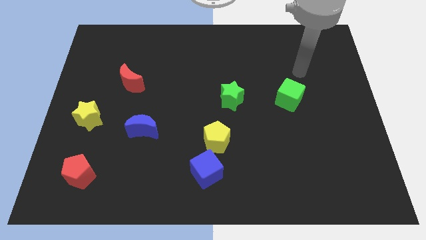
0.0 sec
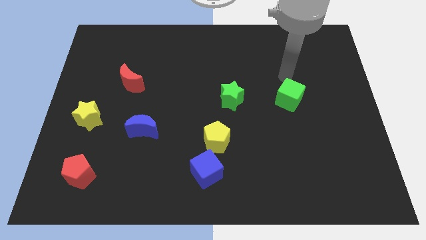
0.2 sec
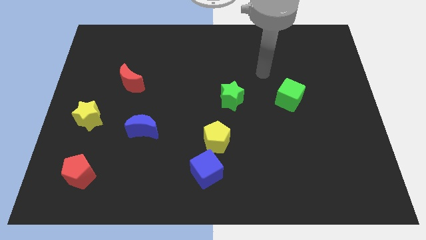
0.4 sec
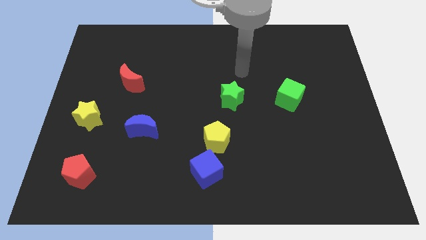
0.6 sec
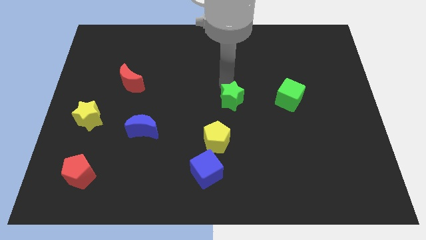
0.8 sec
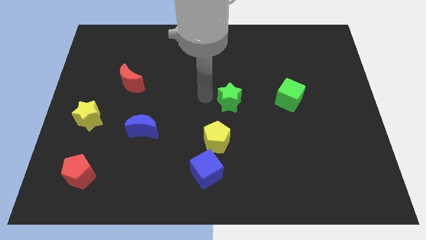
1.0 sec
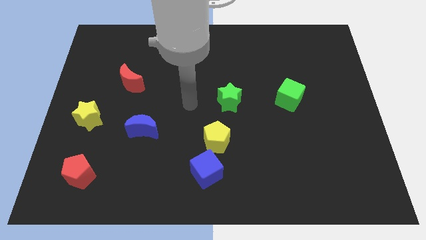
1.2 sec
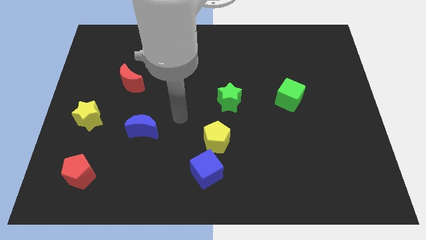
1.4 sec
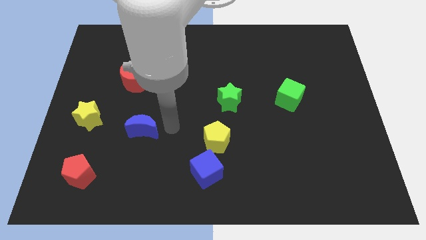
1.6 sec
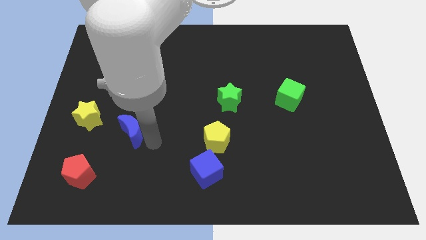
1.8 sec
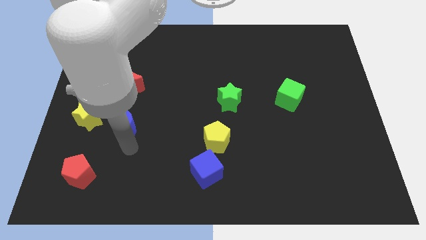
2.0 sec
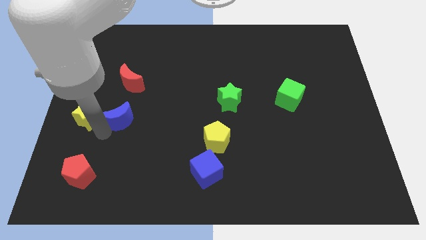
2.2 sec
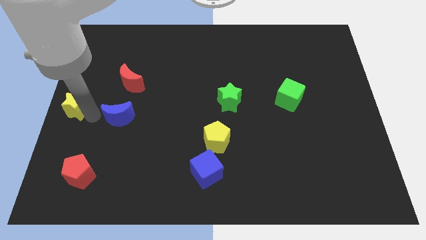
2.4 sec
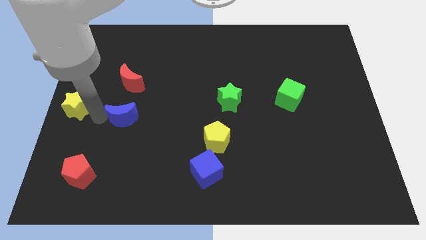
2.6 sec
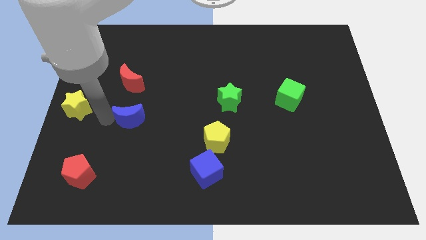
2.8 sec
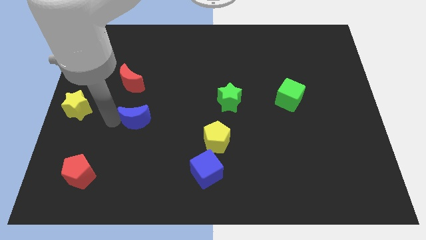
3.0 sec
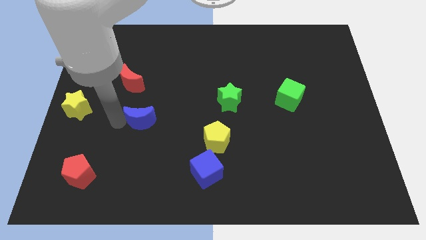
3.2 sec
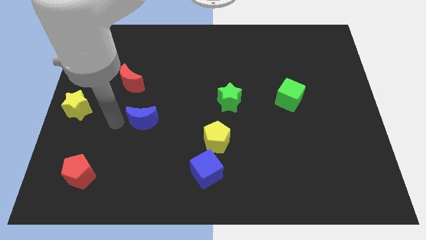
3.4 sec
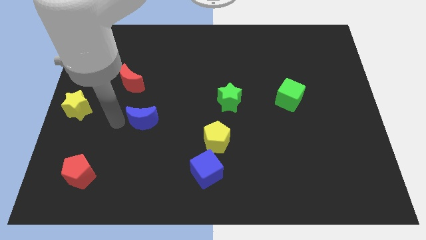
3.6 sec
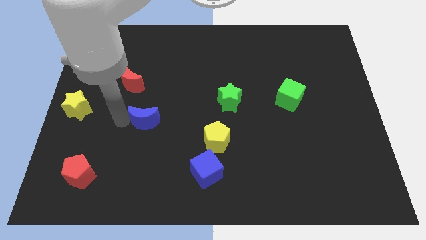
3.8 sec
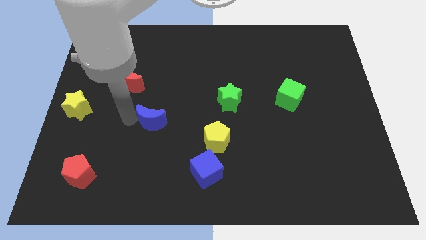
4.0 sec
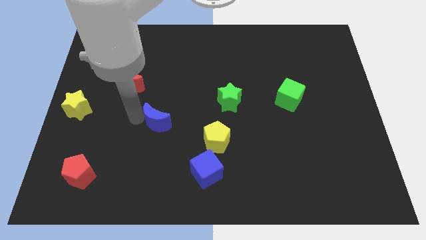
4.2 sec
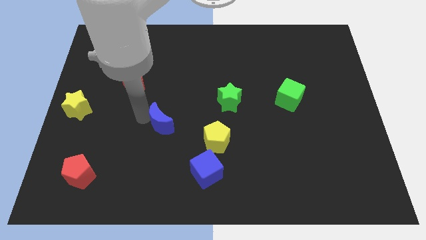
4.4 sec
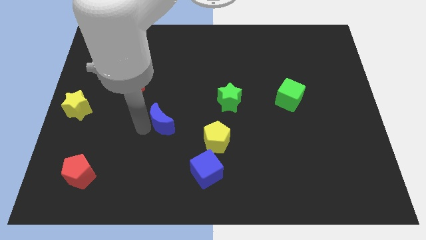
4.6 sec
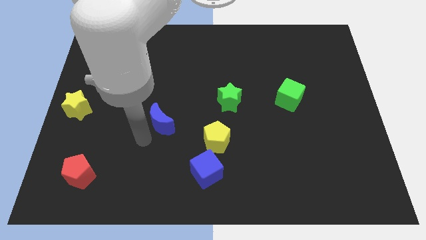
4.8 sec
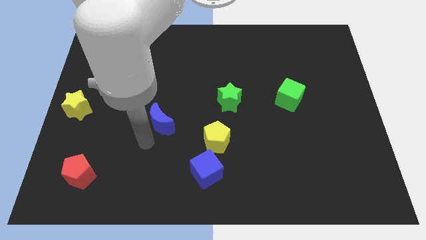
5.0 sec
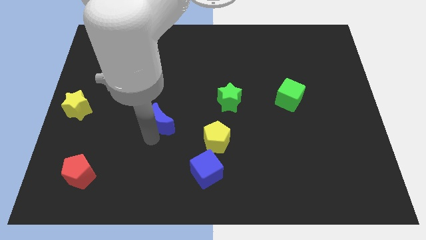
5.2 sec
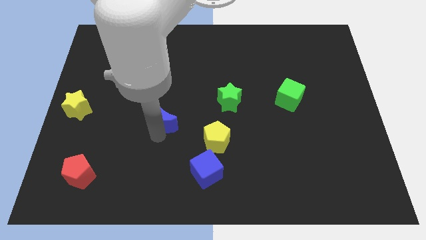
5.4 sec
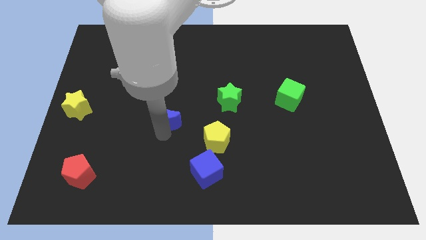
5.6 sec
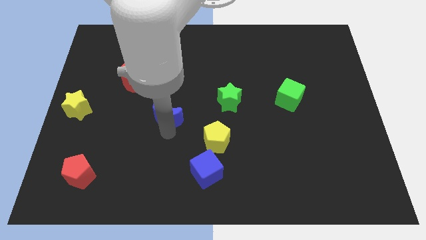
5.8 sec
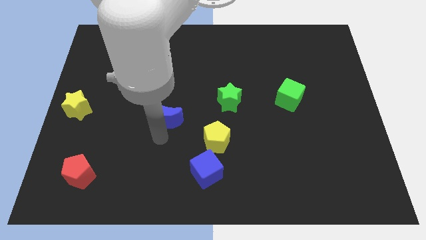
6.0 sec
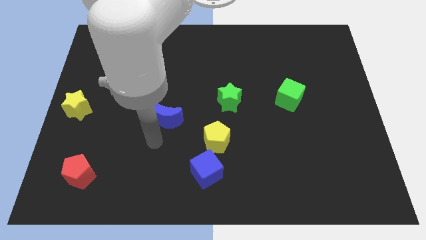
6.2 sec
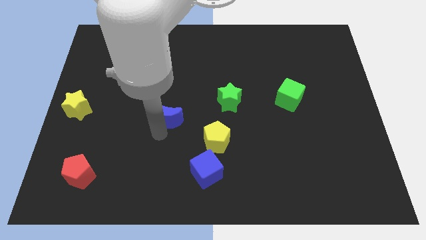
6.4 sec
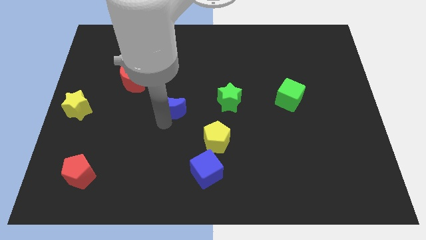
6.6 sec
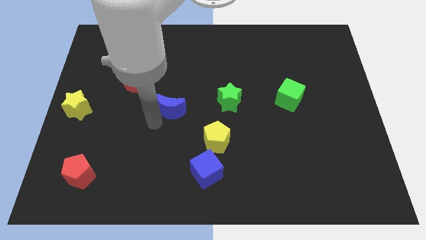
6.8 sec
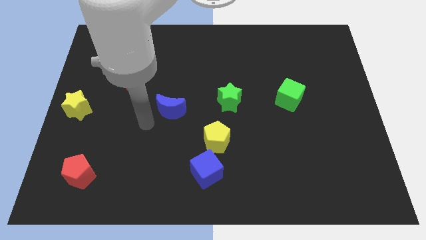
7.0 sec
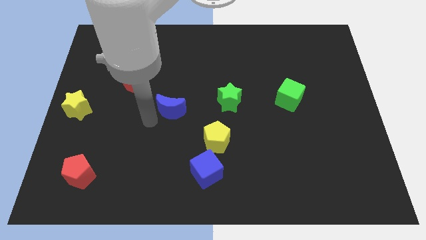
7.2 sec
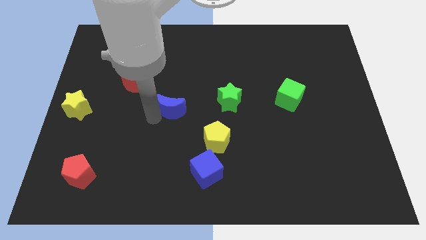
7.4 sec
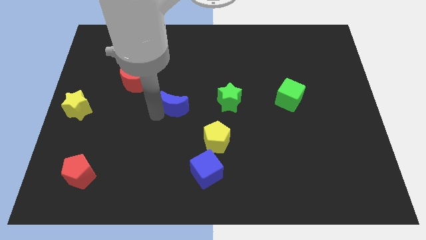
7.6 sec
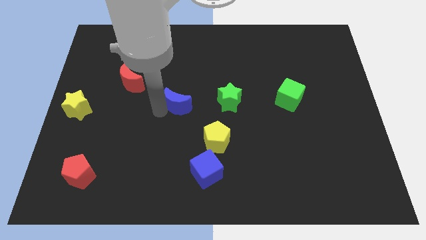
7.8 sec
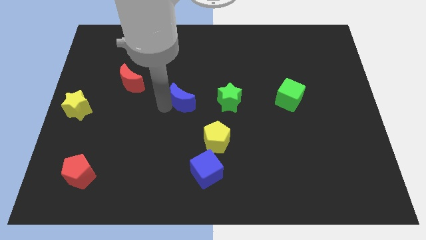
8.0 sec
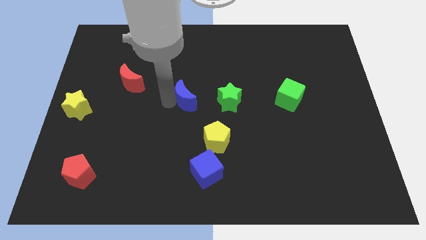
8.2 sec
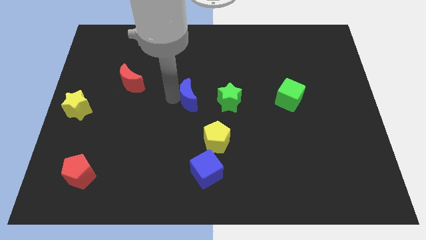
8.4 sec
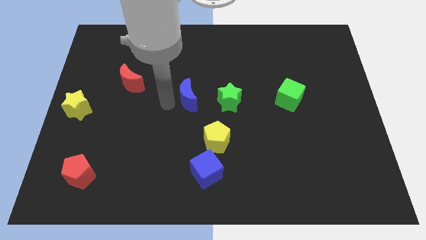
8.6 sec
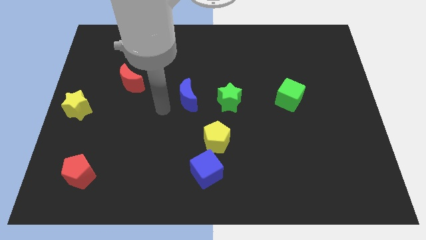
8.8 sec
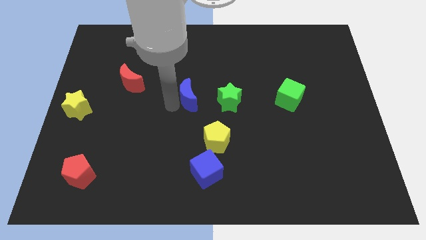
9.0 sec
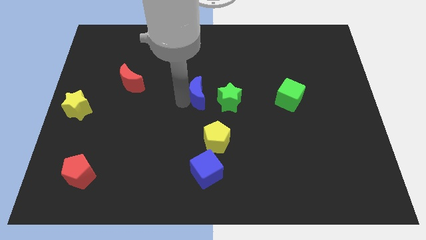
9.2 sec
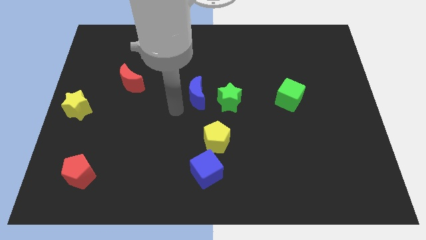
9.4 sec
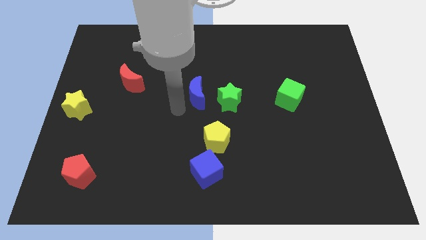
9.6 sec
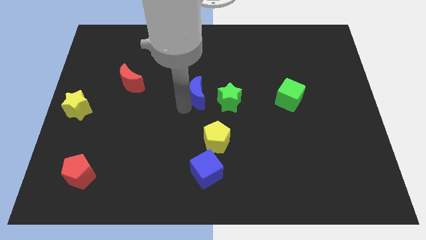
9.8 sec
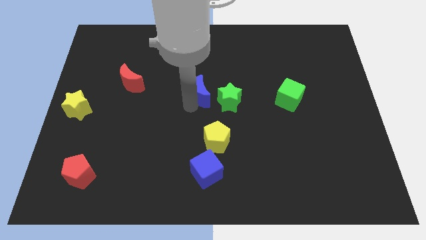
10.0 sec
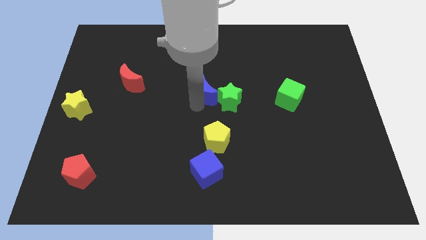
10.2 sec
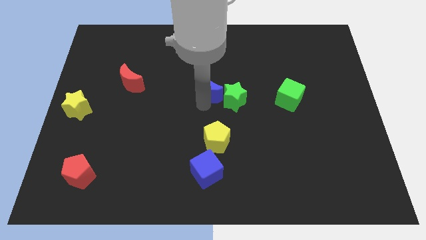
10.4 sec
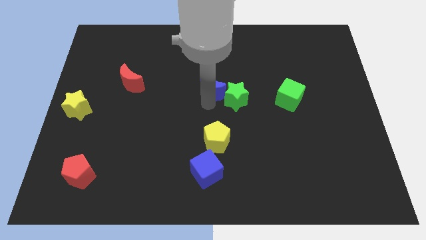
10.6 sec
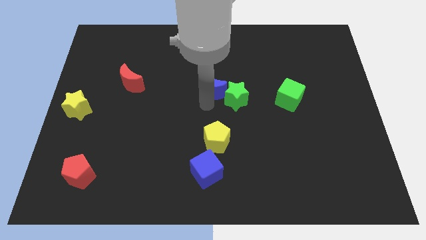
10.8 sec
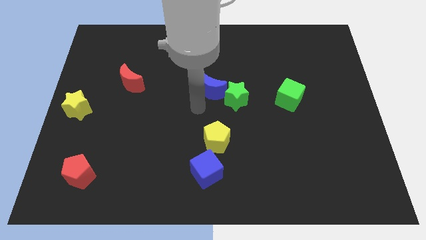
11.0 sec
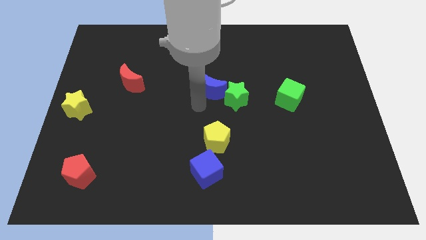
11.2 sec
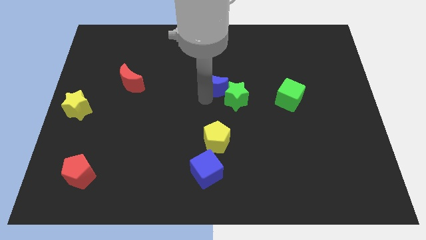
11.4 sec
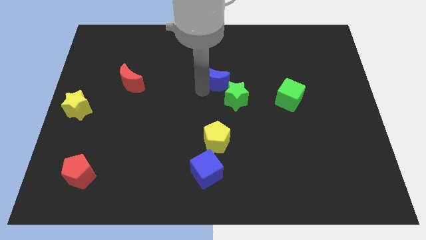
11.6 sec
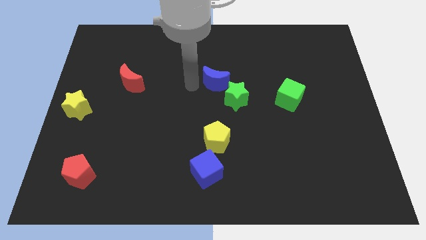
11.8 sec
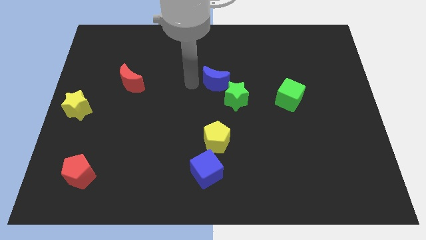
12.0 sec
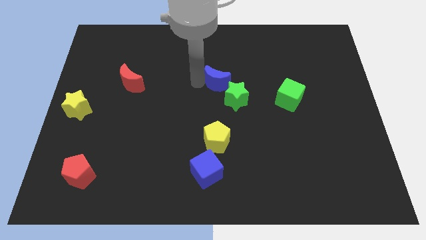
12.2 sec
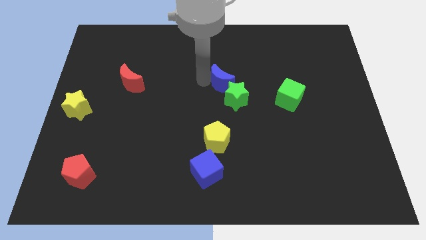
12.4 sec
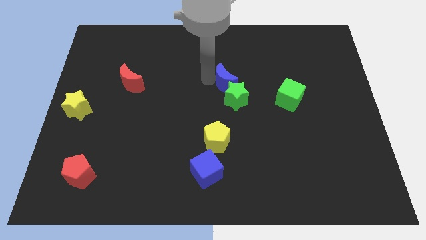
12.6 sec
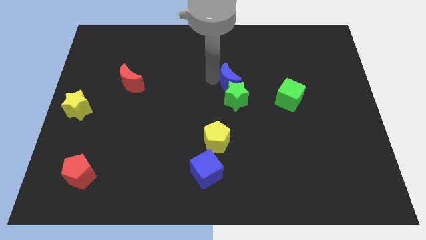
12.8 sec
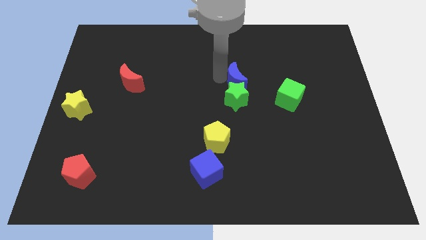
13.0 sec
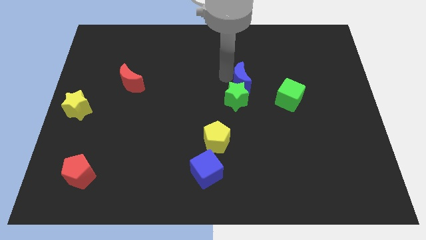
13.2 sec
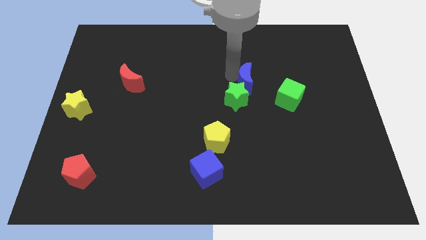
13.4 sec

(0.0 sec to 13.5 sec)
put the blue moon diagonally up and to the left of the green cube

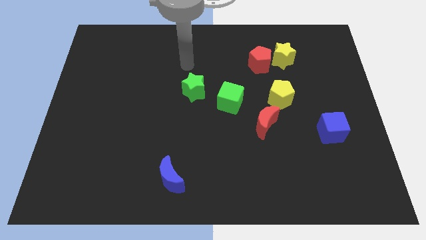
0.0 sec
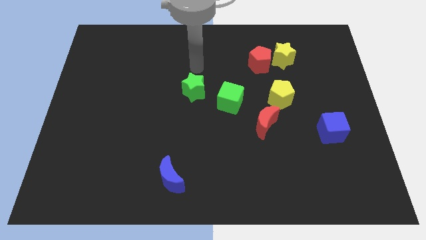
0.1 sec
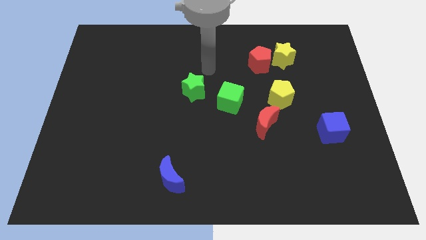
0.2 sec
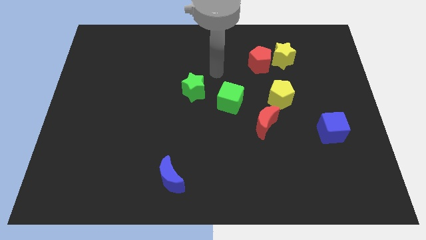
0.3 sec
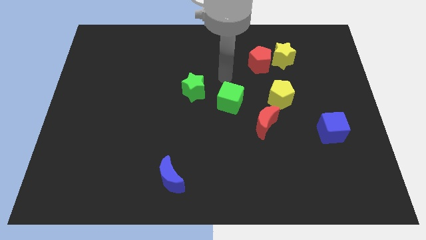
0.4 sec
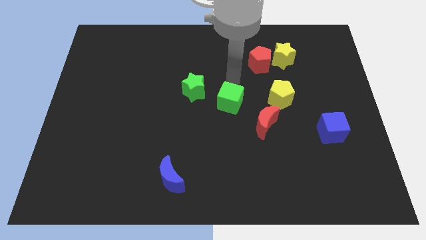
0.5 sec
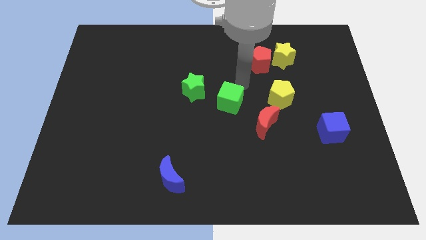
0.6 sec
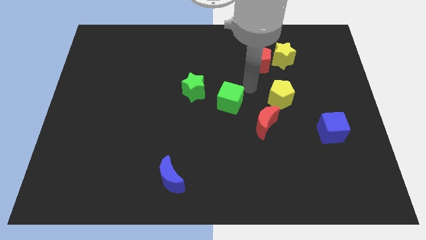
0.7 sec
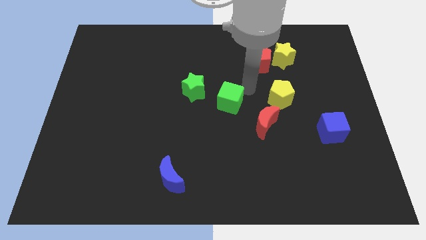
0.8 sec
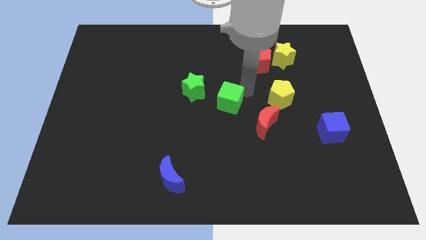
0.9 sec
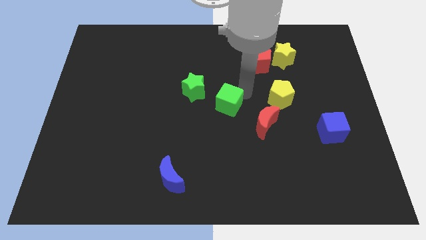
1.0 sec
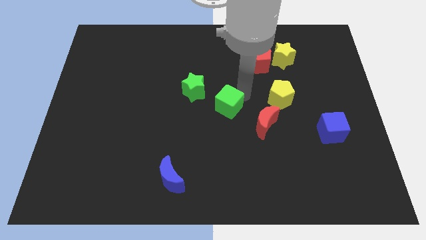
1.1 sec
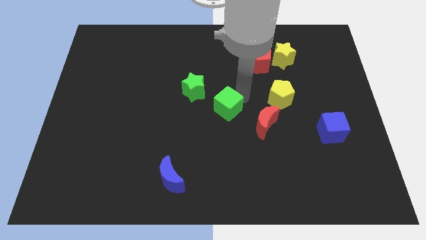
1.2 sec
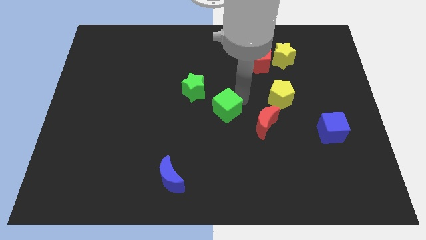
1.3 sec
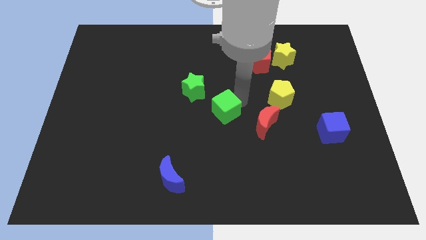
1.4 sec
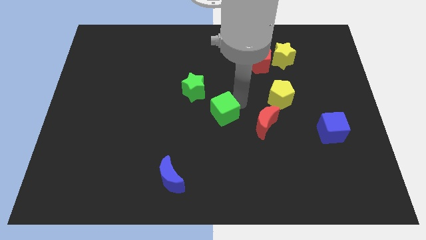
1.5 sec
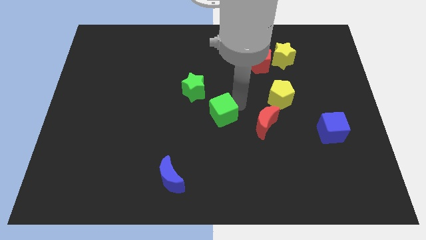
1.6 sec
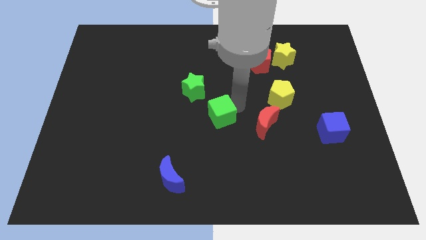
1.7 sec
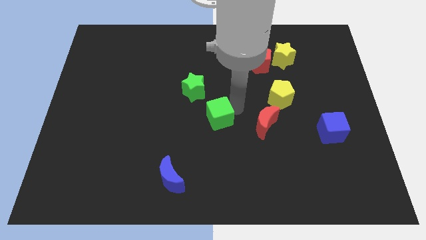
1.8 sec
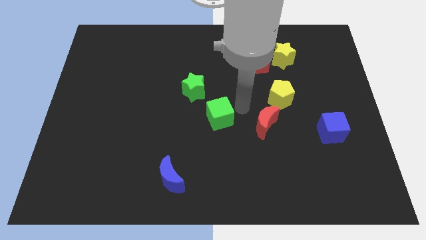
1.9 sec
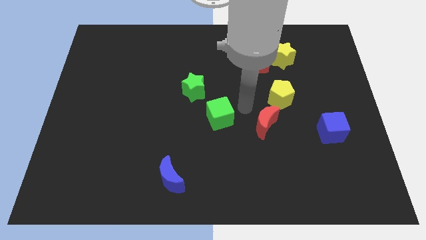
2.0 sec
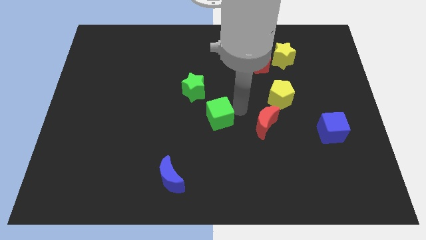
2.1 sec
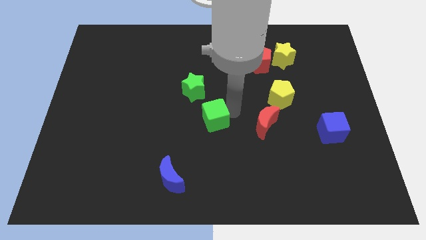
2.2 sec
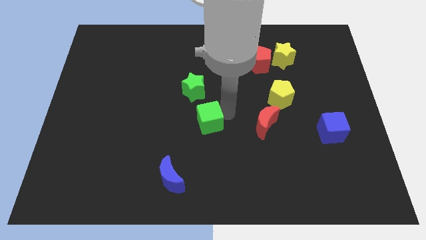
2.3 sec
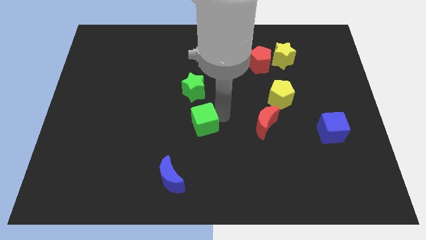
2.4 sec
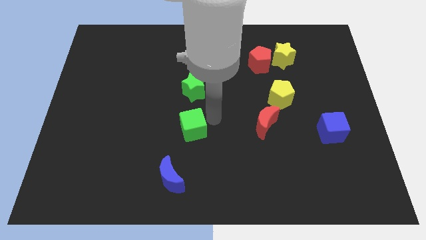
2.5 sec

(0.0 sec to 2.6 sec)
put the green cube above the blue moon
